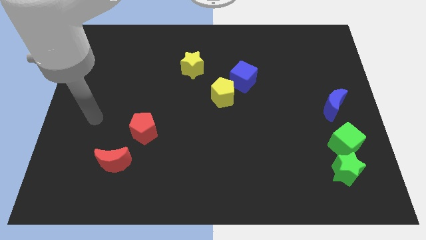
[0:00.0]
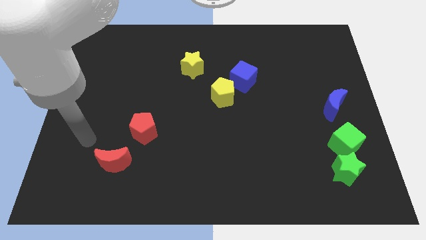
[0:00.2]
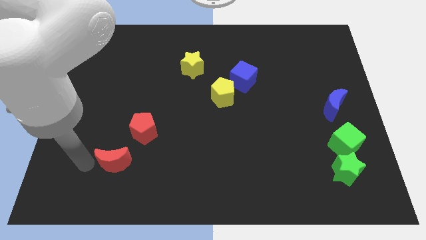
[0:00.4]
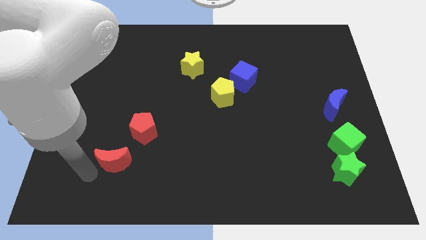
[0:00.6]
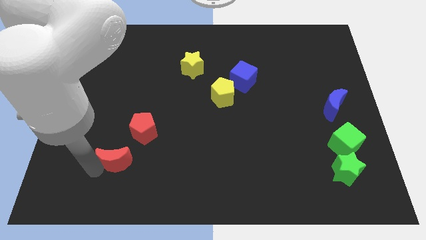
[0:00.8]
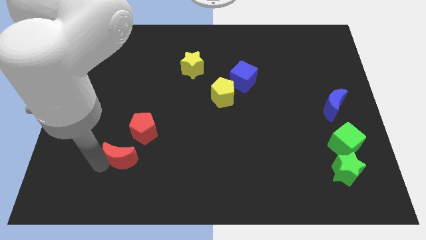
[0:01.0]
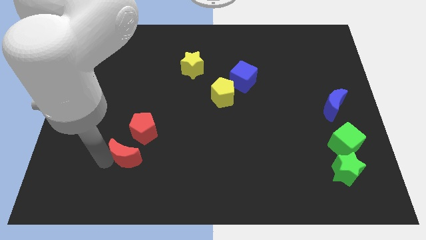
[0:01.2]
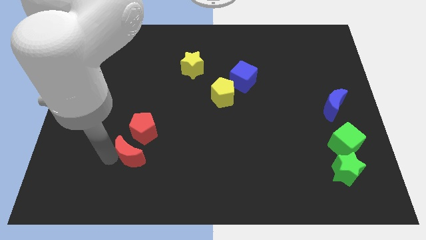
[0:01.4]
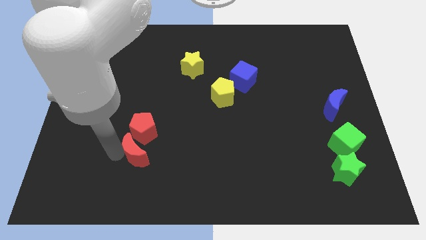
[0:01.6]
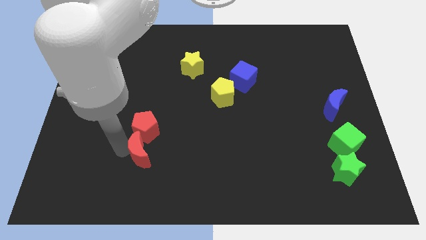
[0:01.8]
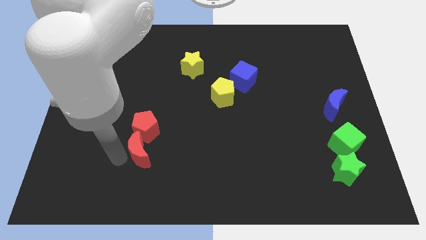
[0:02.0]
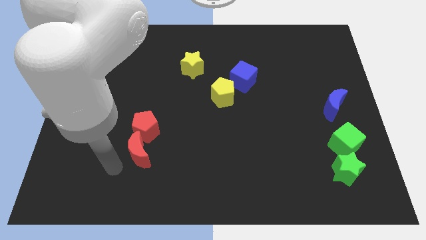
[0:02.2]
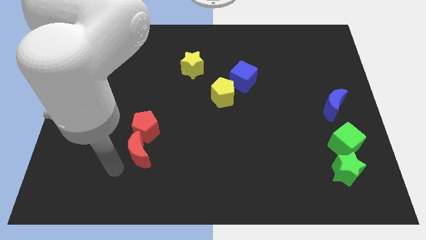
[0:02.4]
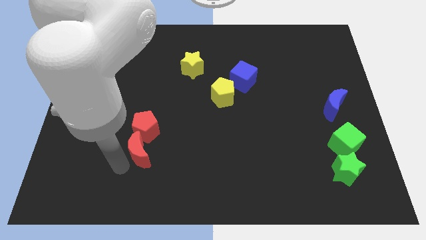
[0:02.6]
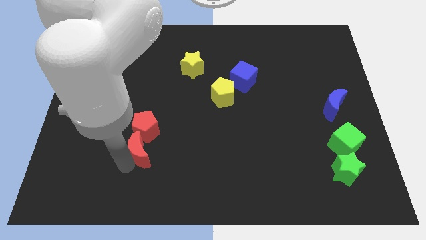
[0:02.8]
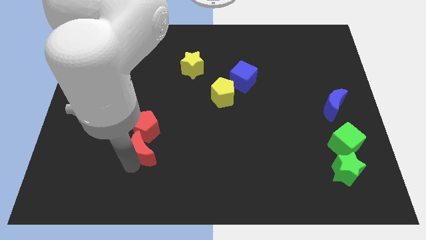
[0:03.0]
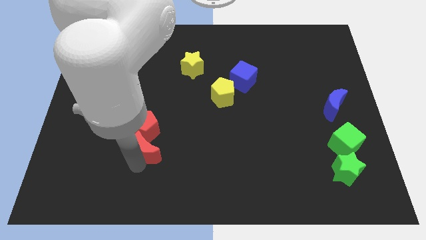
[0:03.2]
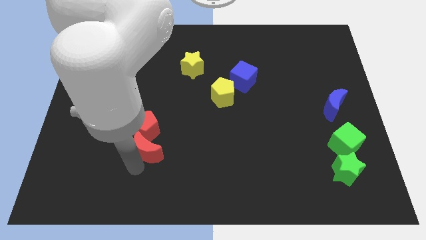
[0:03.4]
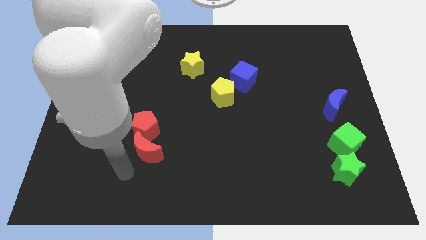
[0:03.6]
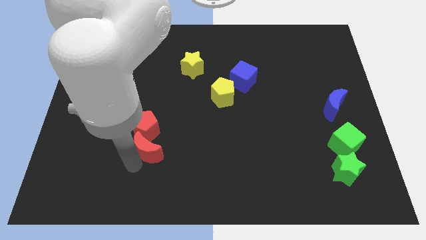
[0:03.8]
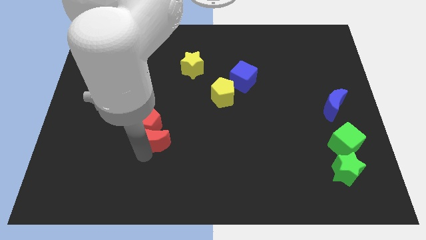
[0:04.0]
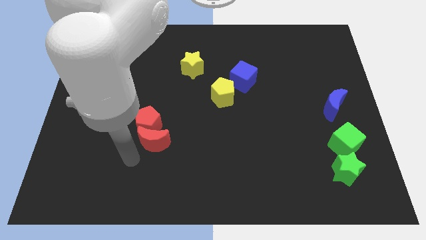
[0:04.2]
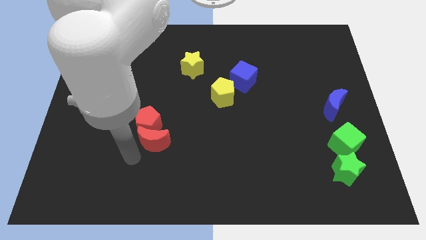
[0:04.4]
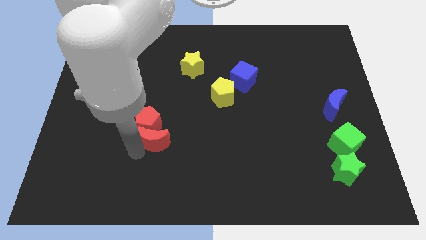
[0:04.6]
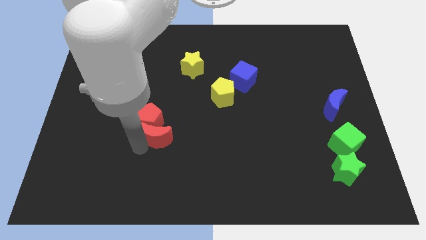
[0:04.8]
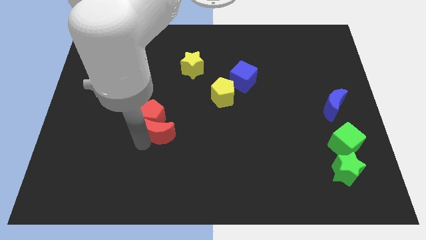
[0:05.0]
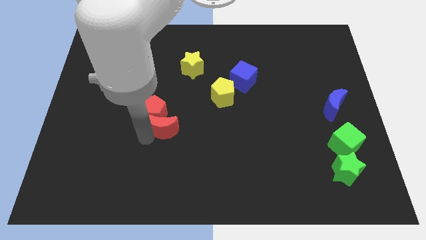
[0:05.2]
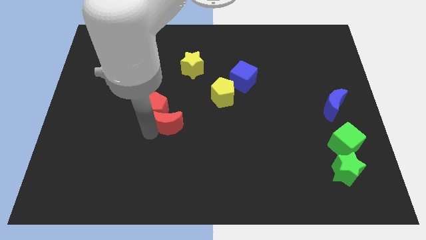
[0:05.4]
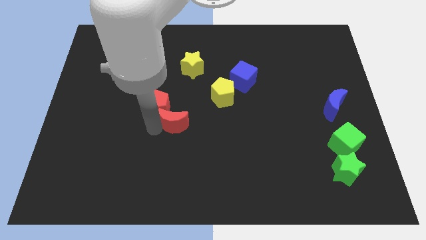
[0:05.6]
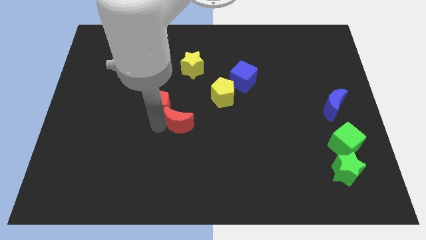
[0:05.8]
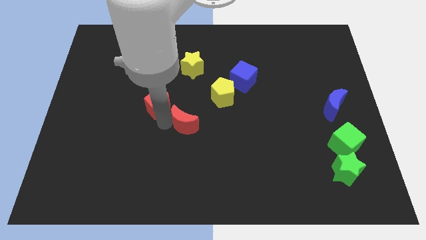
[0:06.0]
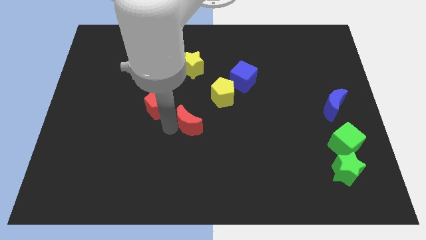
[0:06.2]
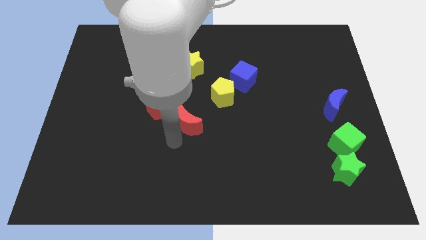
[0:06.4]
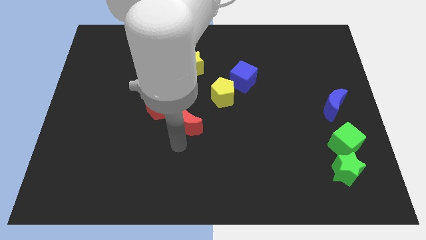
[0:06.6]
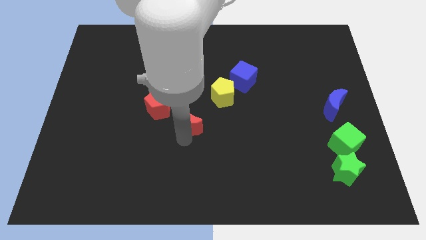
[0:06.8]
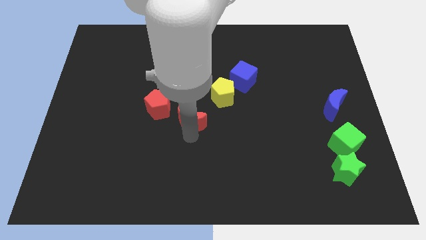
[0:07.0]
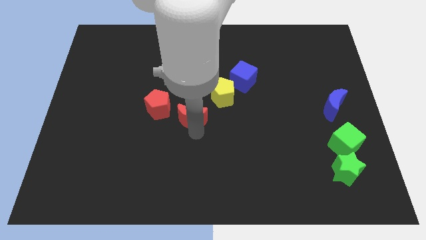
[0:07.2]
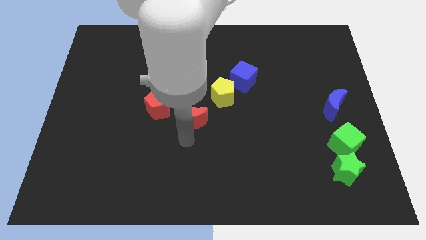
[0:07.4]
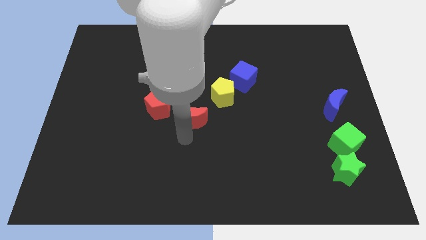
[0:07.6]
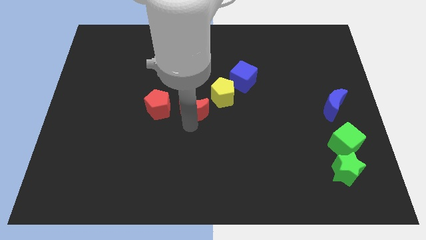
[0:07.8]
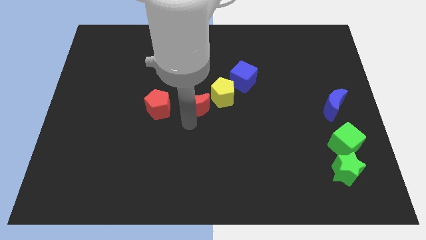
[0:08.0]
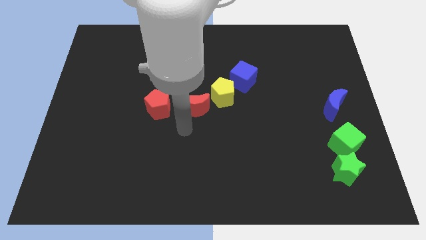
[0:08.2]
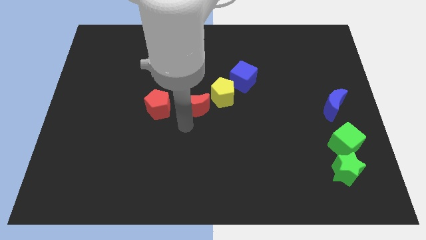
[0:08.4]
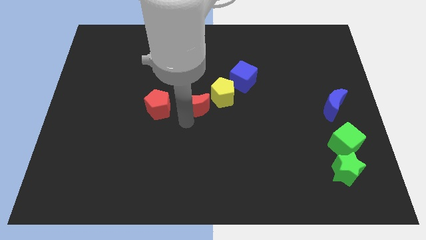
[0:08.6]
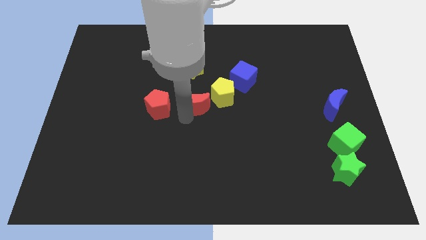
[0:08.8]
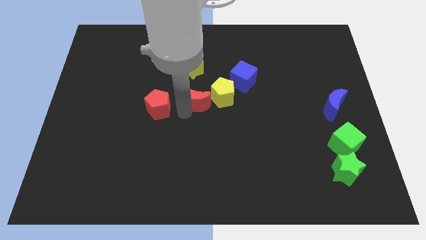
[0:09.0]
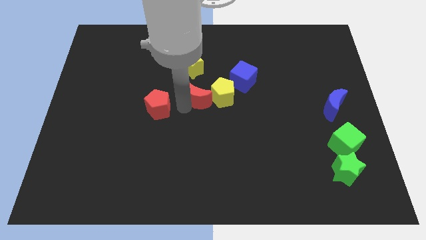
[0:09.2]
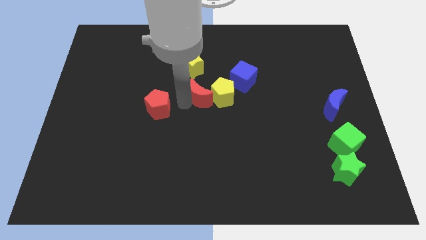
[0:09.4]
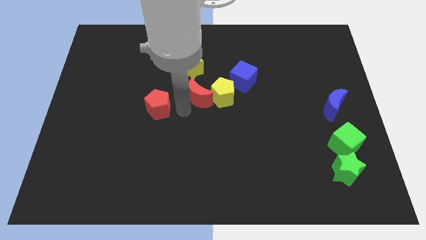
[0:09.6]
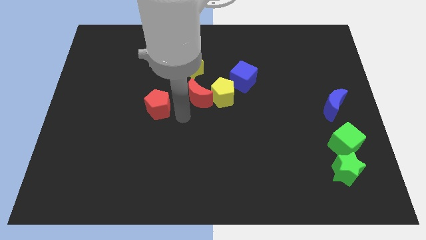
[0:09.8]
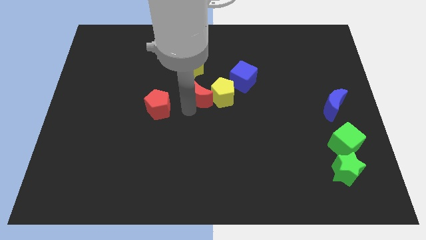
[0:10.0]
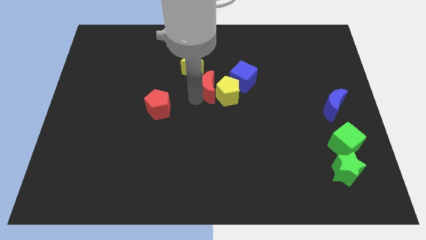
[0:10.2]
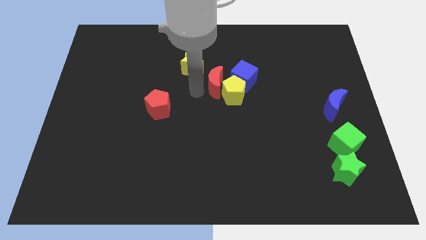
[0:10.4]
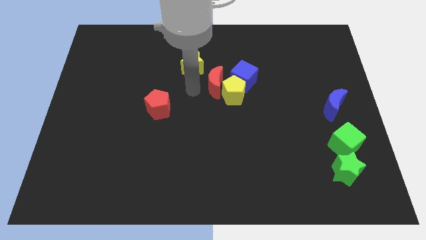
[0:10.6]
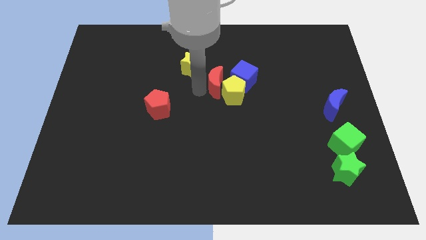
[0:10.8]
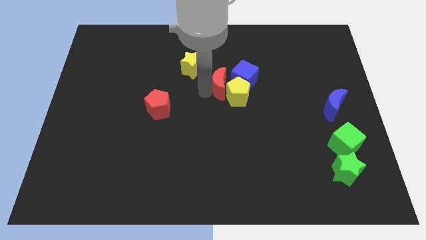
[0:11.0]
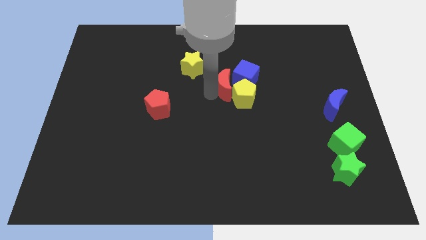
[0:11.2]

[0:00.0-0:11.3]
put the red moon to the blue cube

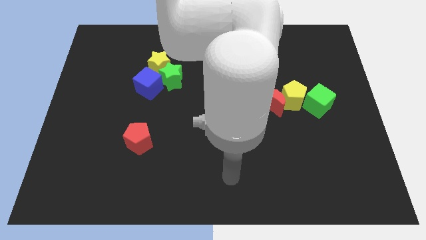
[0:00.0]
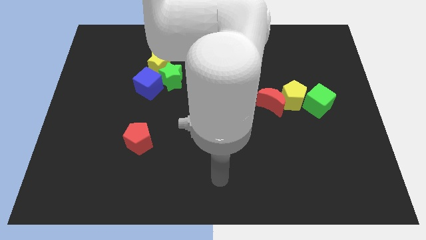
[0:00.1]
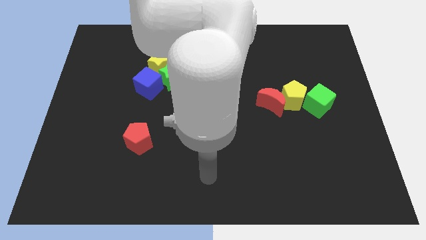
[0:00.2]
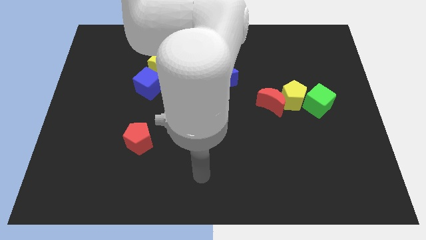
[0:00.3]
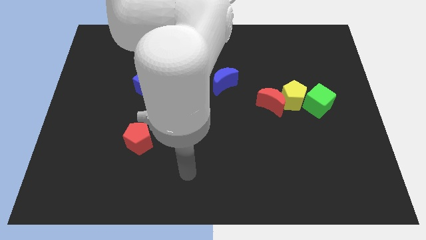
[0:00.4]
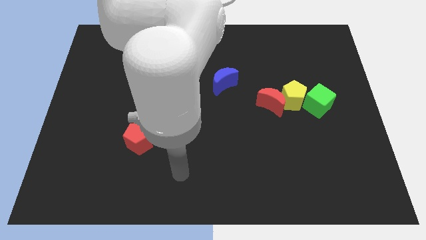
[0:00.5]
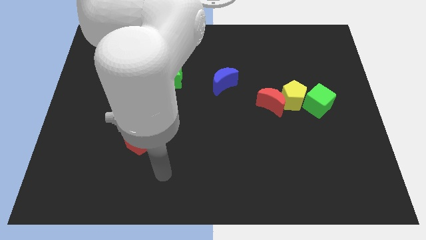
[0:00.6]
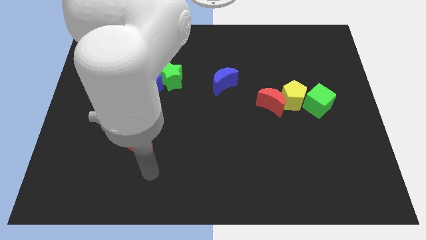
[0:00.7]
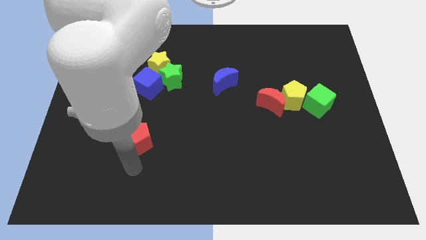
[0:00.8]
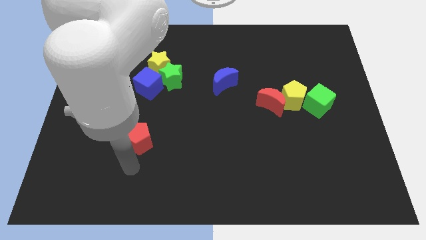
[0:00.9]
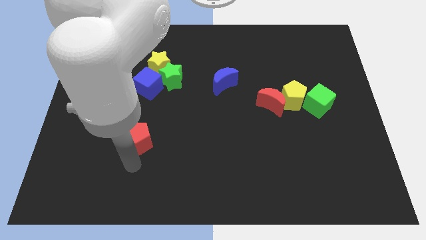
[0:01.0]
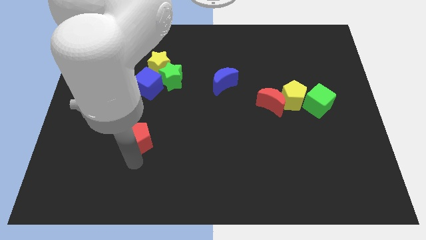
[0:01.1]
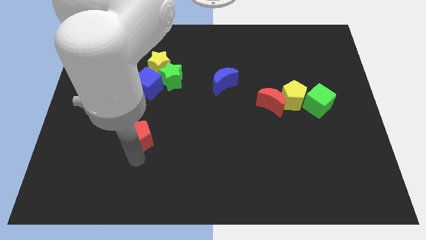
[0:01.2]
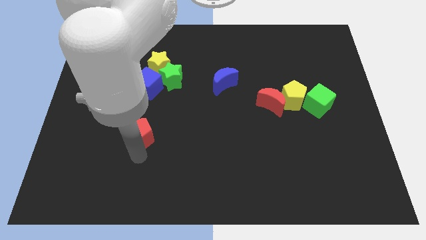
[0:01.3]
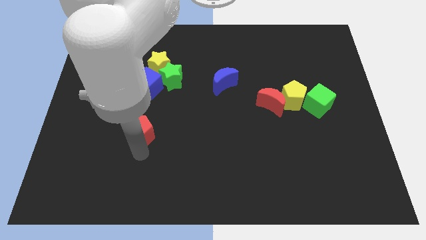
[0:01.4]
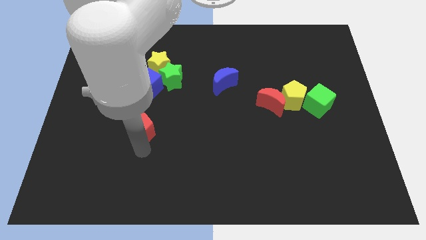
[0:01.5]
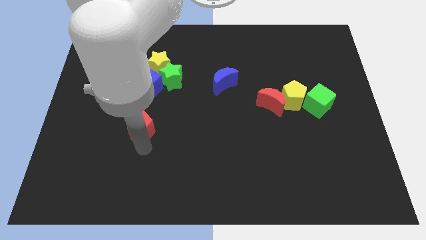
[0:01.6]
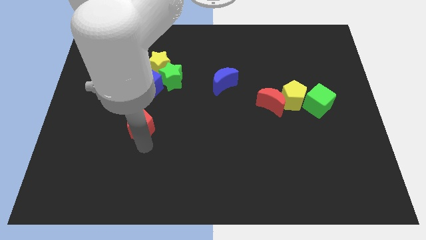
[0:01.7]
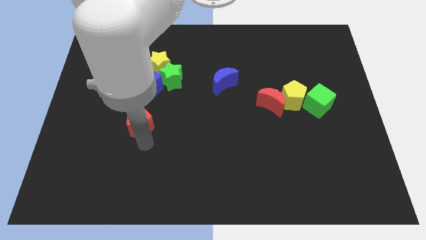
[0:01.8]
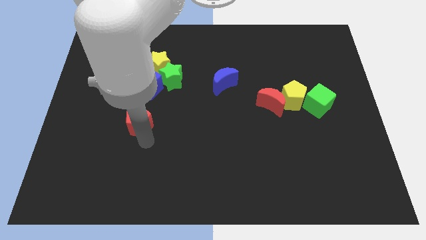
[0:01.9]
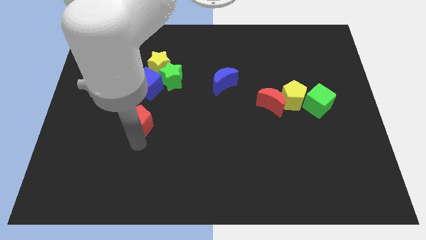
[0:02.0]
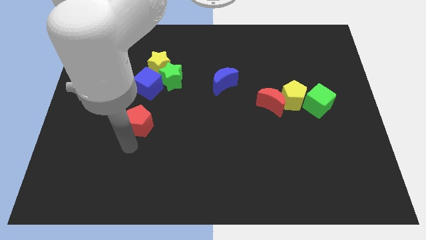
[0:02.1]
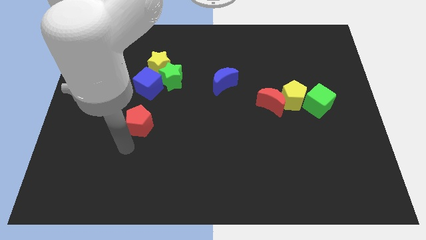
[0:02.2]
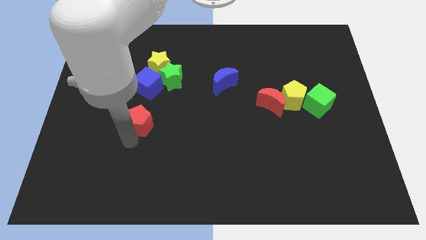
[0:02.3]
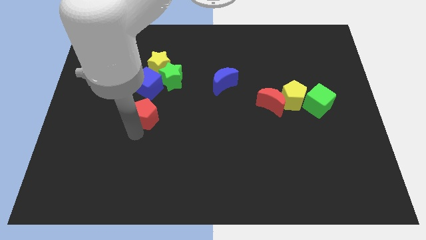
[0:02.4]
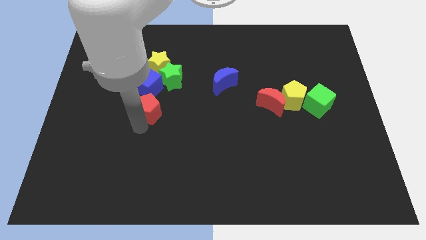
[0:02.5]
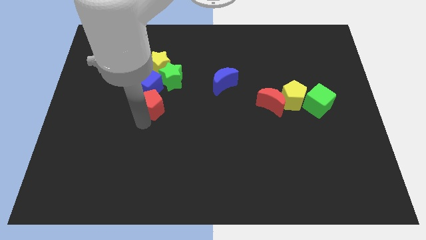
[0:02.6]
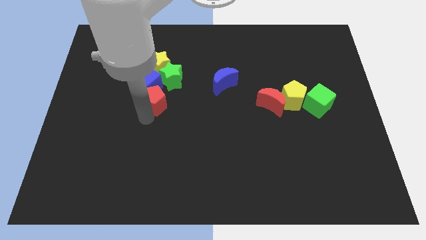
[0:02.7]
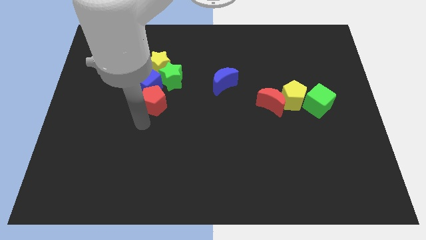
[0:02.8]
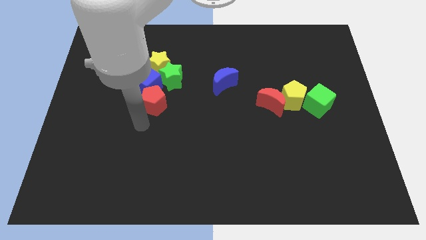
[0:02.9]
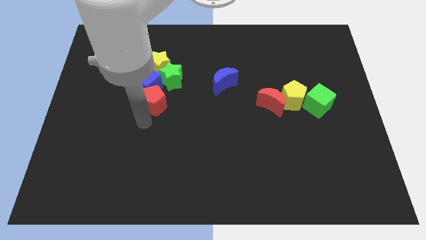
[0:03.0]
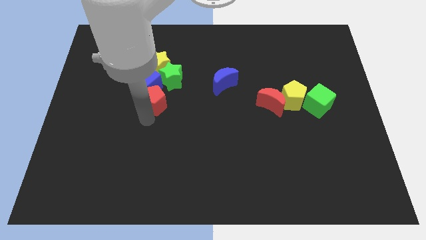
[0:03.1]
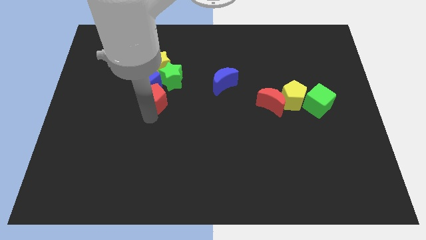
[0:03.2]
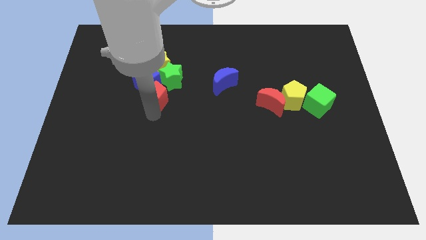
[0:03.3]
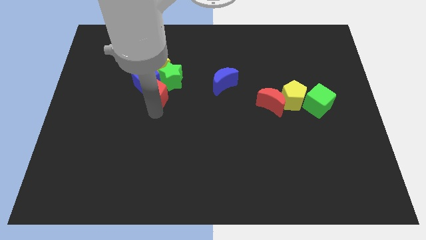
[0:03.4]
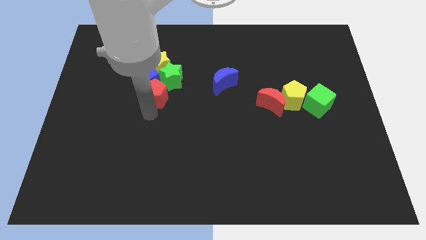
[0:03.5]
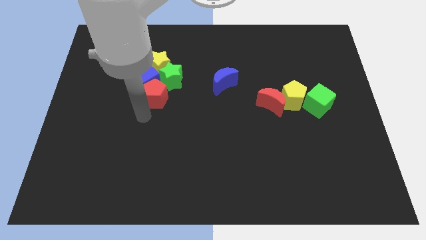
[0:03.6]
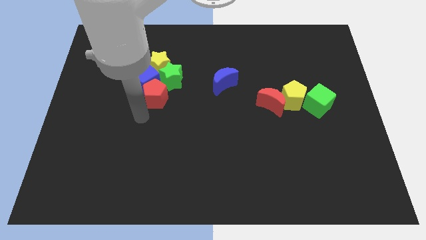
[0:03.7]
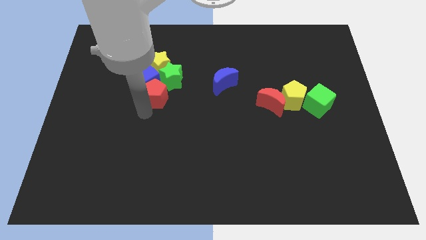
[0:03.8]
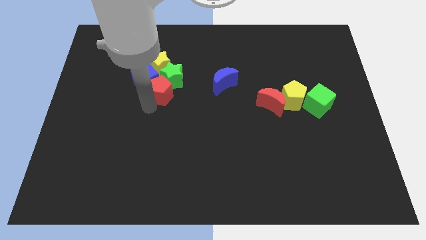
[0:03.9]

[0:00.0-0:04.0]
slide the red pentagon next to the green star
